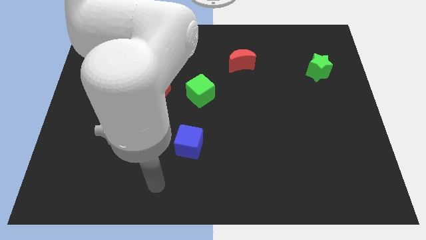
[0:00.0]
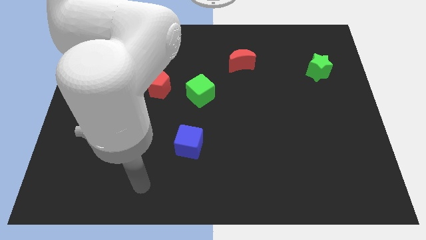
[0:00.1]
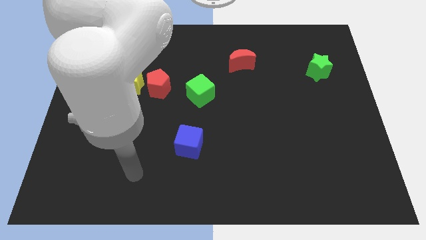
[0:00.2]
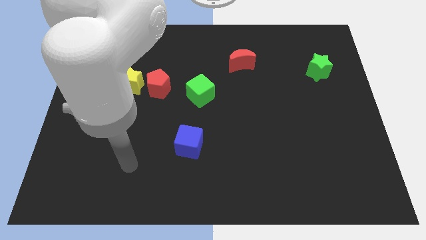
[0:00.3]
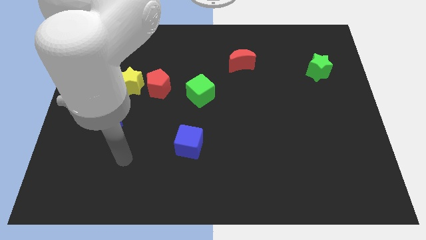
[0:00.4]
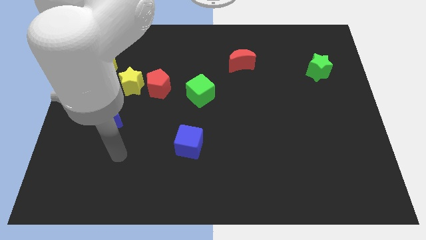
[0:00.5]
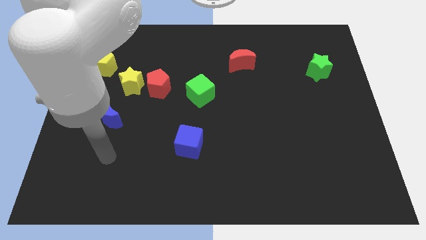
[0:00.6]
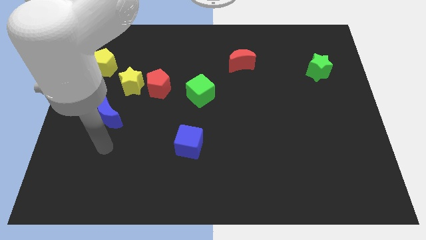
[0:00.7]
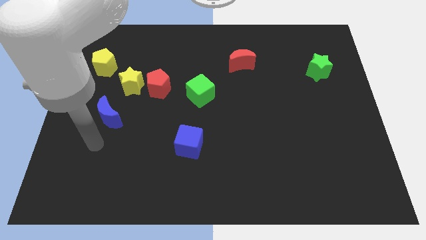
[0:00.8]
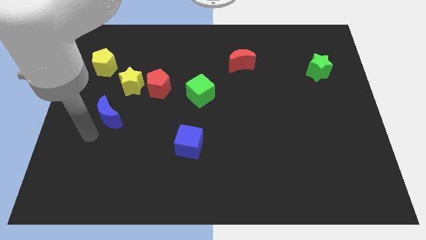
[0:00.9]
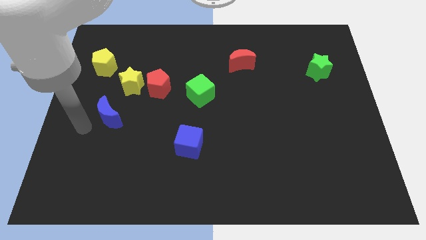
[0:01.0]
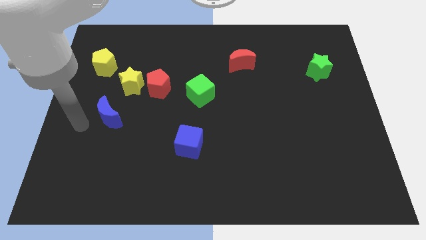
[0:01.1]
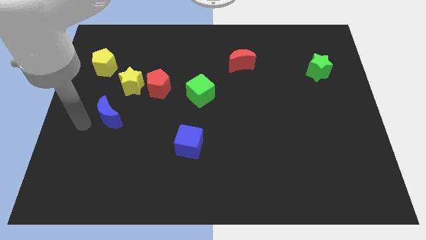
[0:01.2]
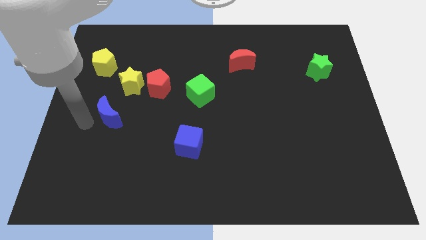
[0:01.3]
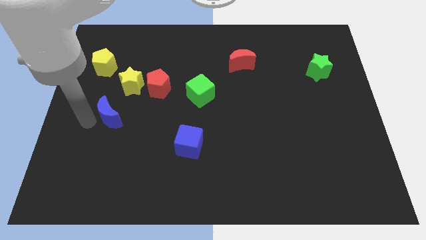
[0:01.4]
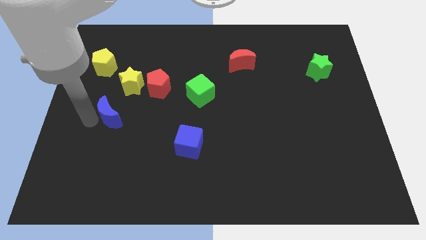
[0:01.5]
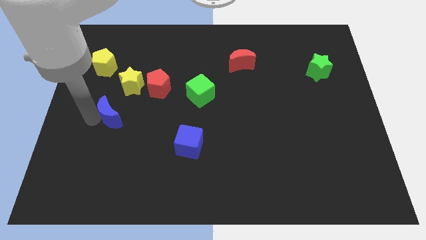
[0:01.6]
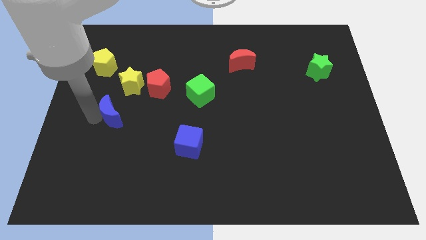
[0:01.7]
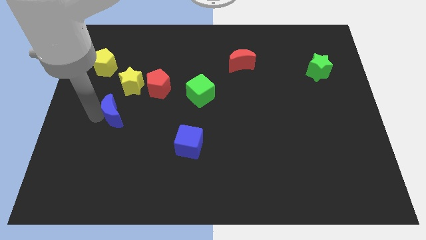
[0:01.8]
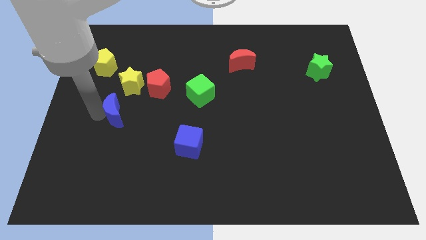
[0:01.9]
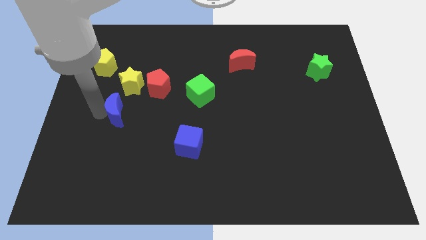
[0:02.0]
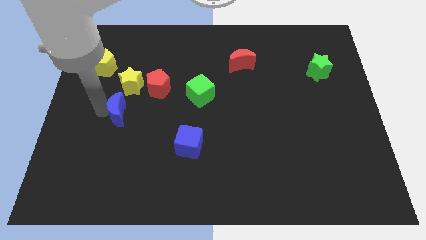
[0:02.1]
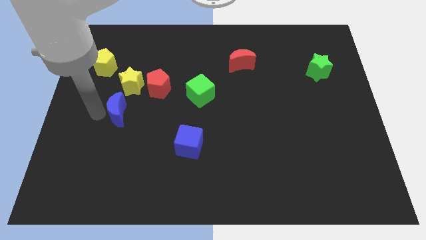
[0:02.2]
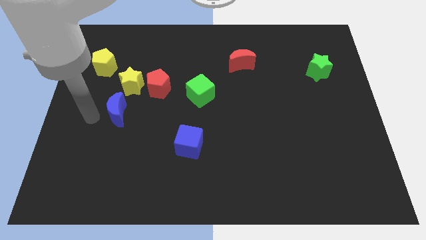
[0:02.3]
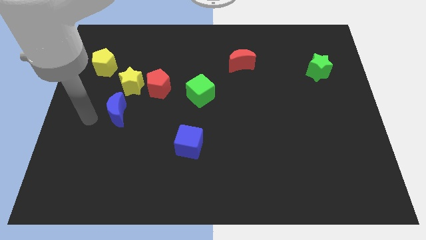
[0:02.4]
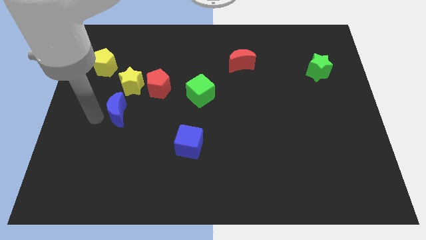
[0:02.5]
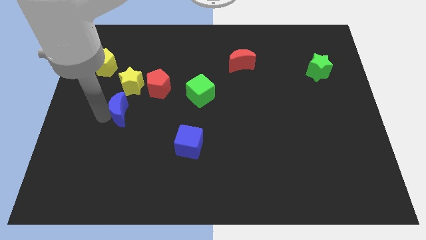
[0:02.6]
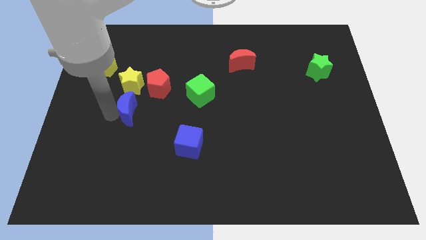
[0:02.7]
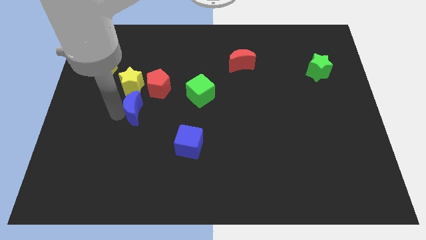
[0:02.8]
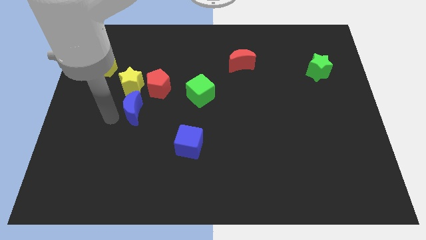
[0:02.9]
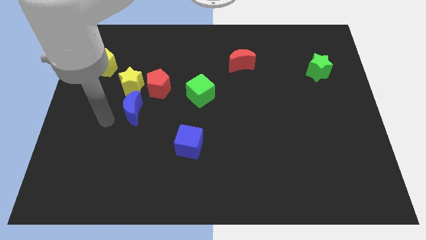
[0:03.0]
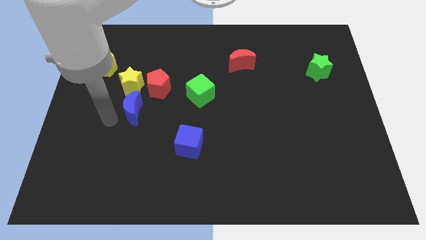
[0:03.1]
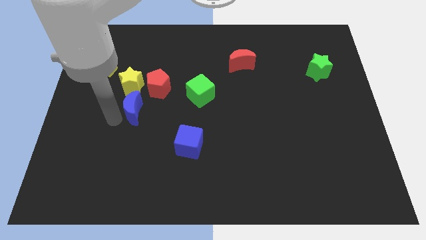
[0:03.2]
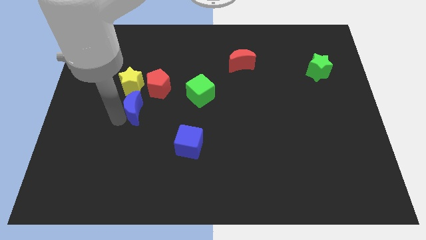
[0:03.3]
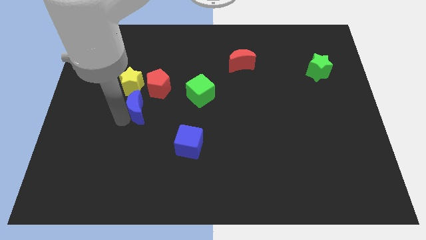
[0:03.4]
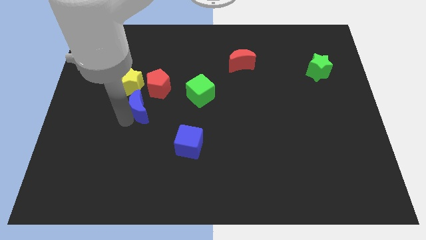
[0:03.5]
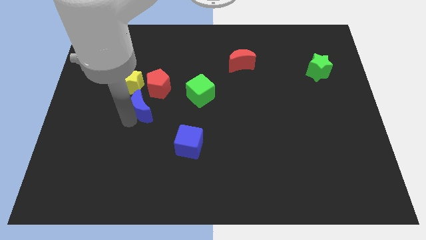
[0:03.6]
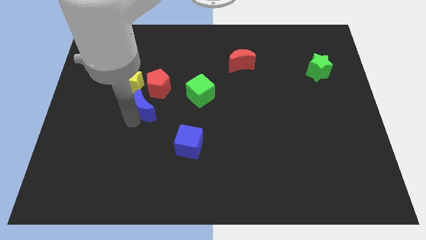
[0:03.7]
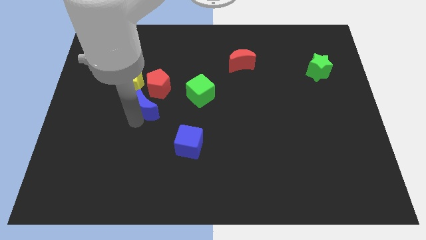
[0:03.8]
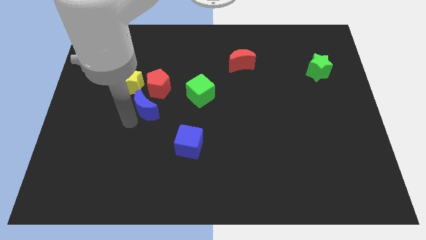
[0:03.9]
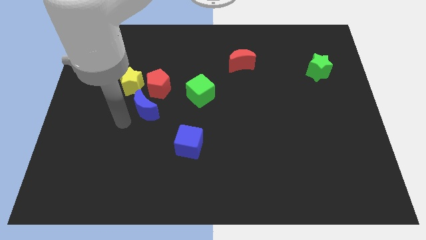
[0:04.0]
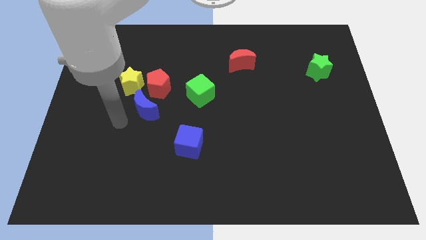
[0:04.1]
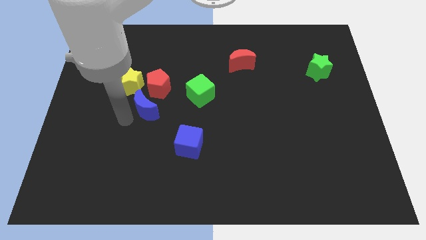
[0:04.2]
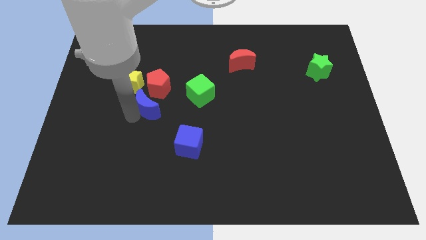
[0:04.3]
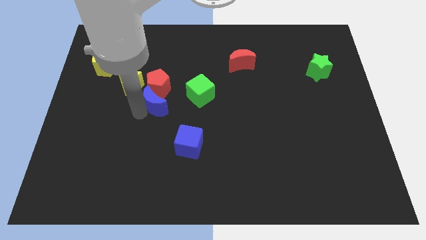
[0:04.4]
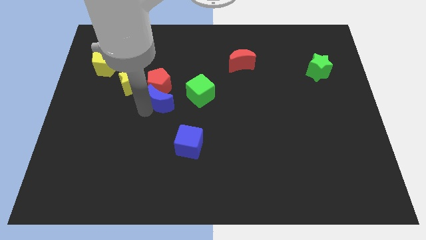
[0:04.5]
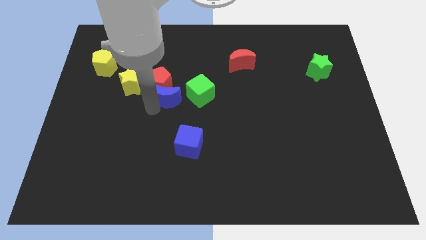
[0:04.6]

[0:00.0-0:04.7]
slide the blue moon to the right of the yellow star

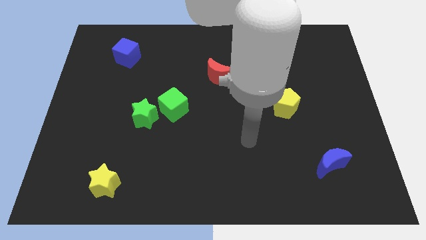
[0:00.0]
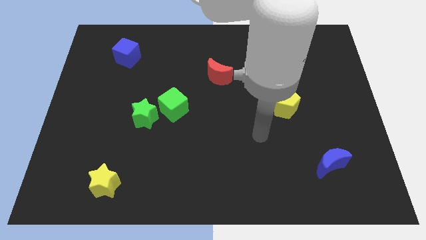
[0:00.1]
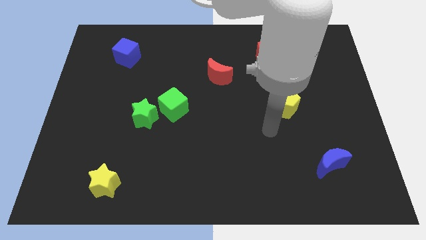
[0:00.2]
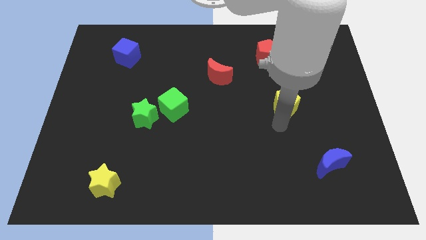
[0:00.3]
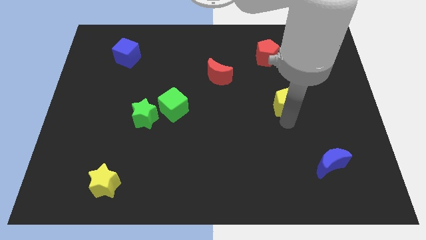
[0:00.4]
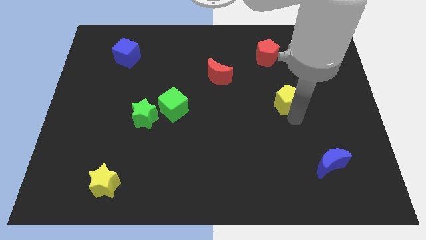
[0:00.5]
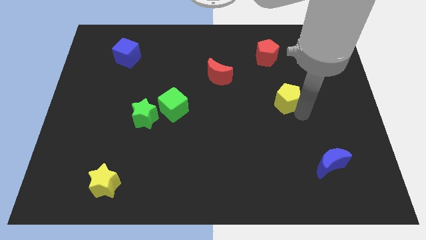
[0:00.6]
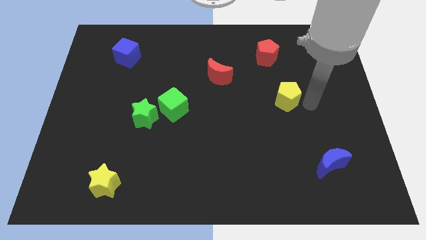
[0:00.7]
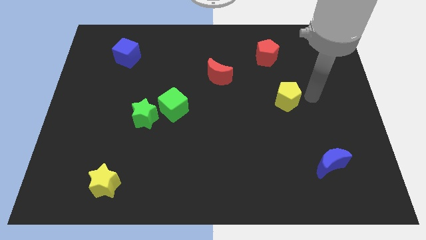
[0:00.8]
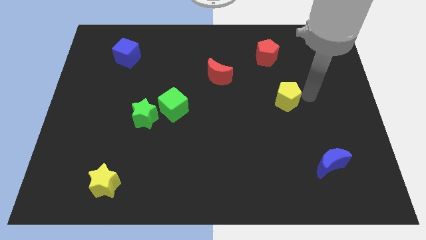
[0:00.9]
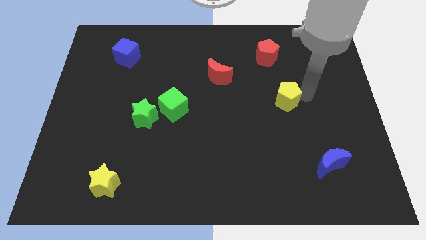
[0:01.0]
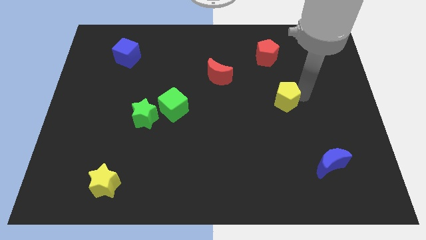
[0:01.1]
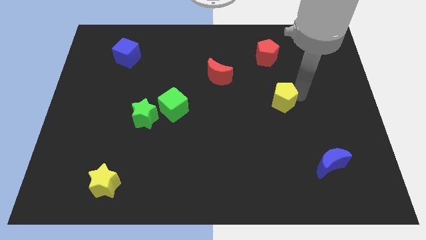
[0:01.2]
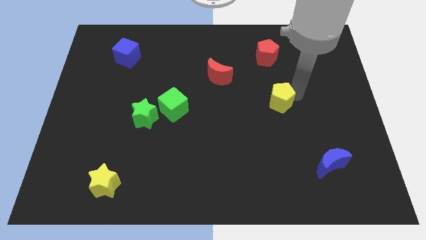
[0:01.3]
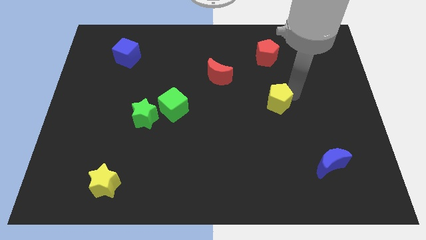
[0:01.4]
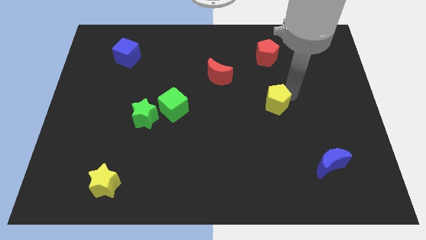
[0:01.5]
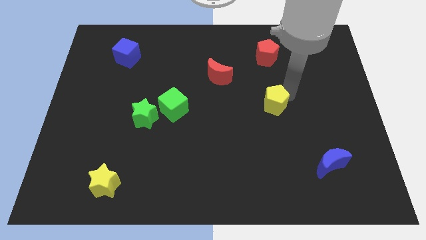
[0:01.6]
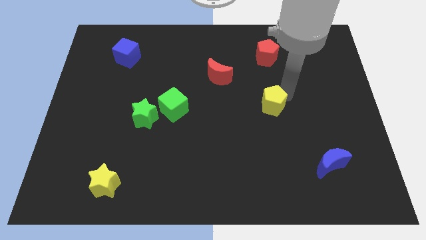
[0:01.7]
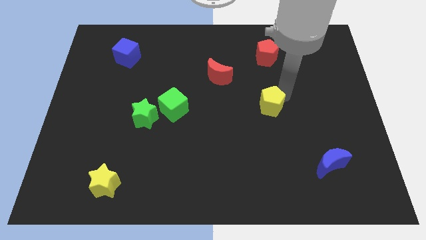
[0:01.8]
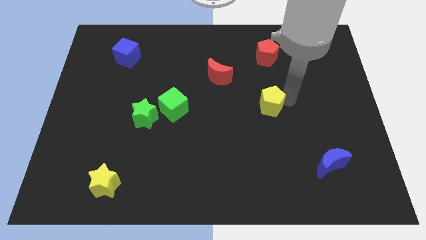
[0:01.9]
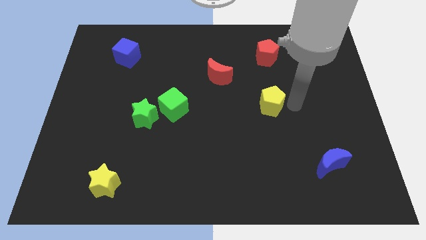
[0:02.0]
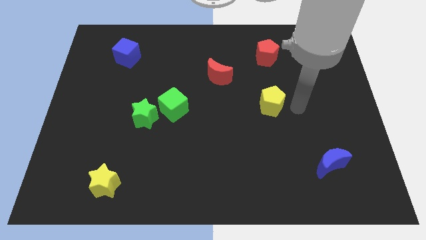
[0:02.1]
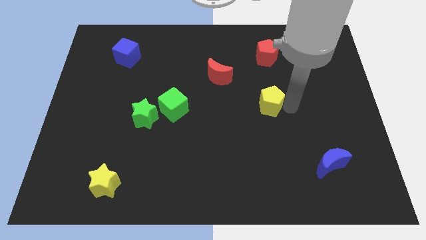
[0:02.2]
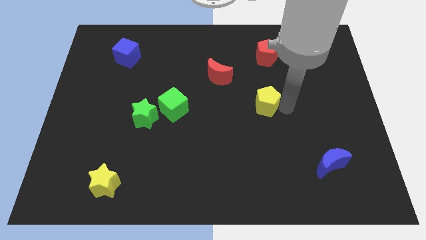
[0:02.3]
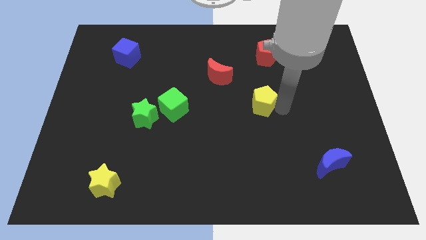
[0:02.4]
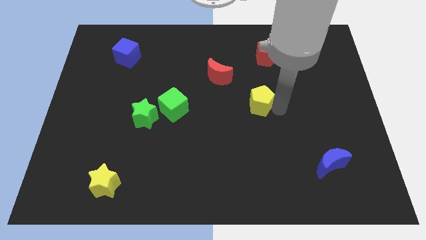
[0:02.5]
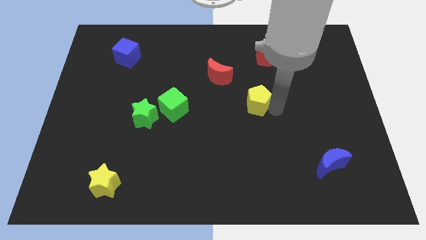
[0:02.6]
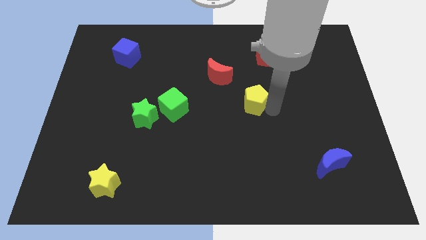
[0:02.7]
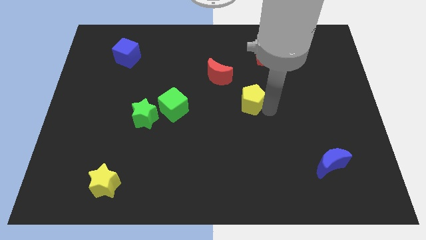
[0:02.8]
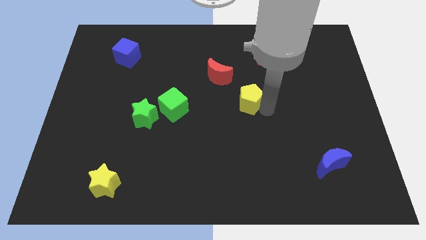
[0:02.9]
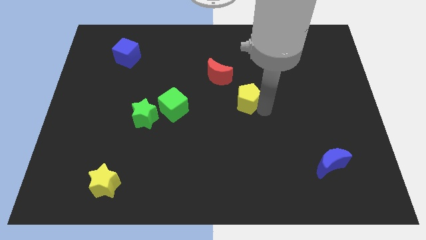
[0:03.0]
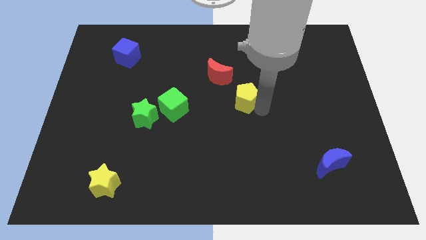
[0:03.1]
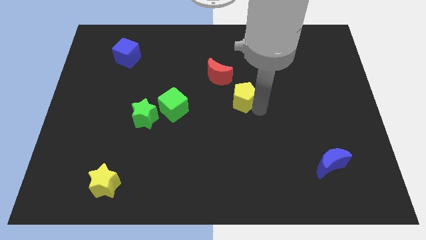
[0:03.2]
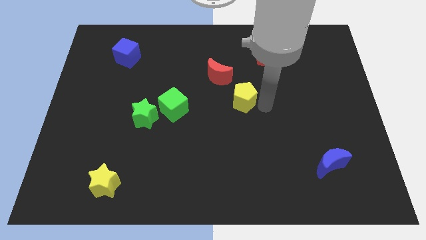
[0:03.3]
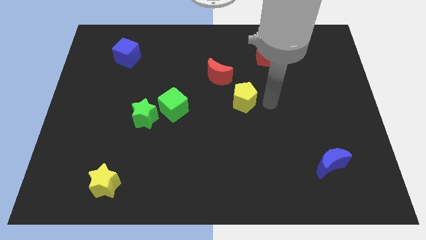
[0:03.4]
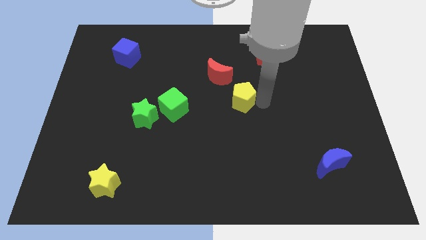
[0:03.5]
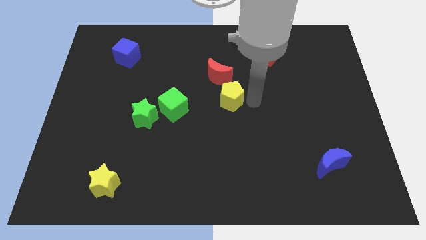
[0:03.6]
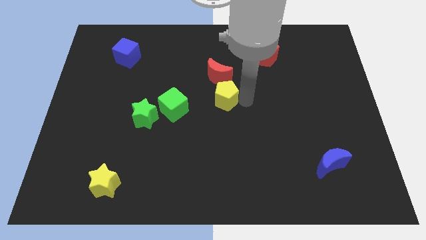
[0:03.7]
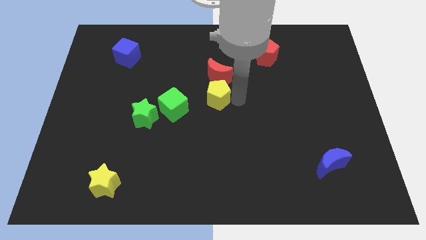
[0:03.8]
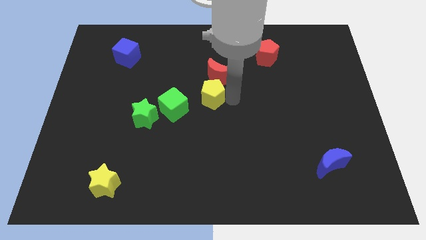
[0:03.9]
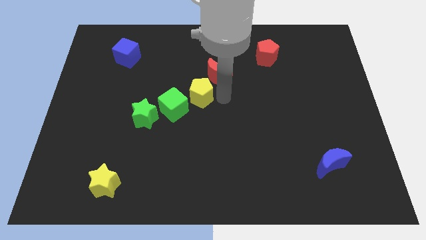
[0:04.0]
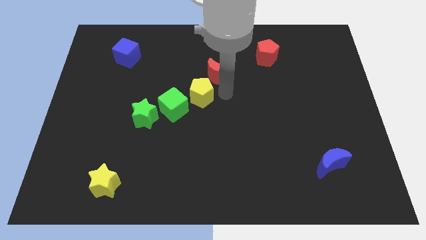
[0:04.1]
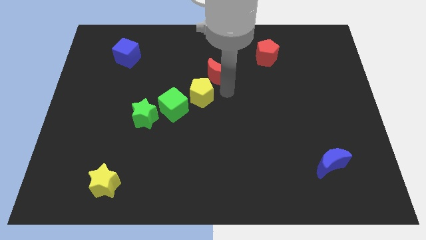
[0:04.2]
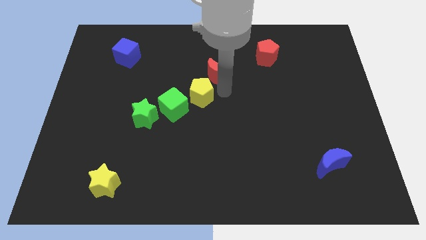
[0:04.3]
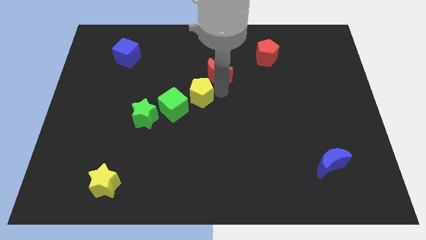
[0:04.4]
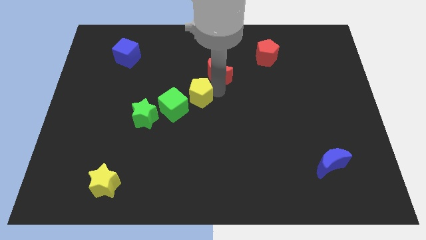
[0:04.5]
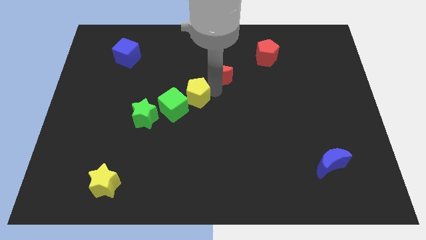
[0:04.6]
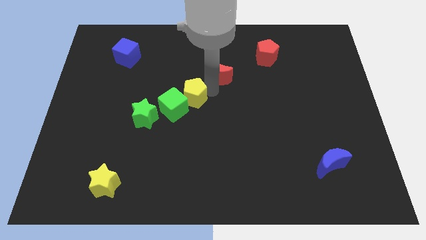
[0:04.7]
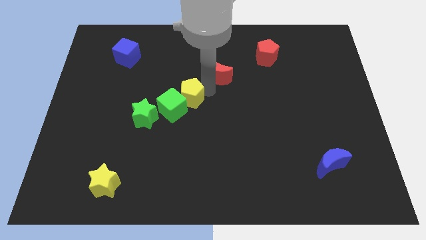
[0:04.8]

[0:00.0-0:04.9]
slide the yellow pentagon to the top right of the green star
